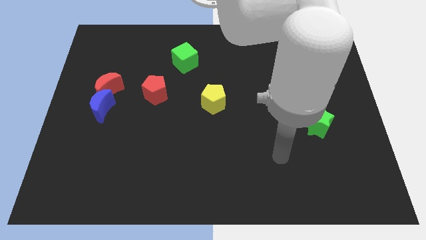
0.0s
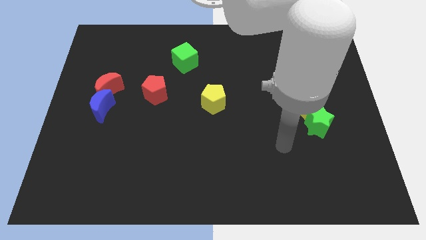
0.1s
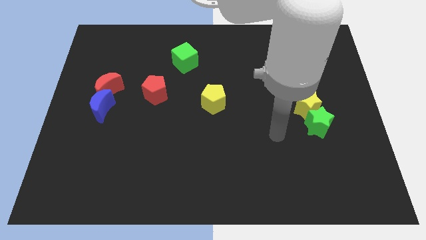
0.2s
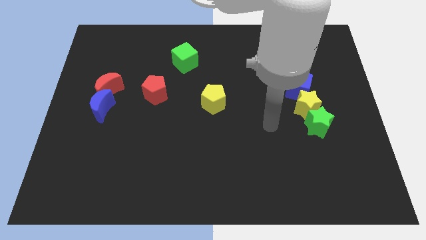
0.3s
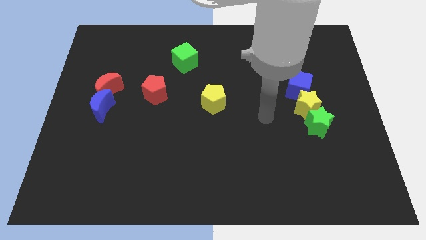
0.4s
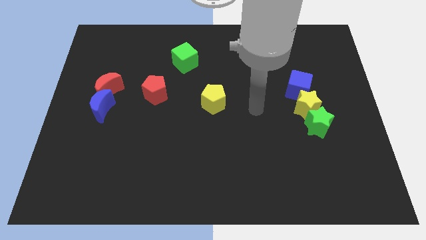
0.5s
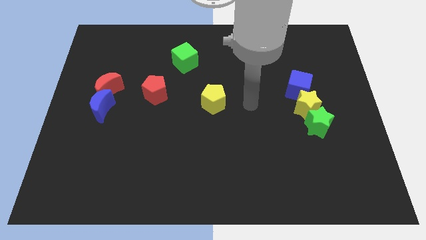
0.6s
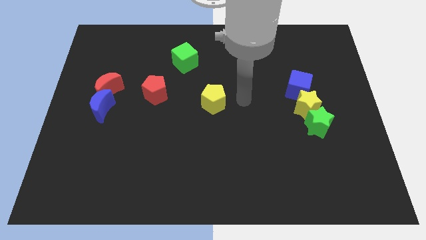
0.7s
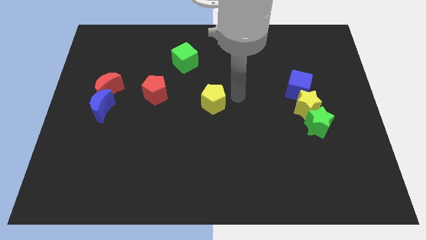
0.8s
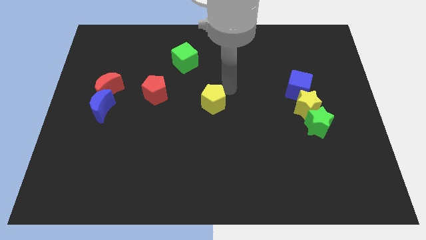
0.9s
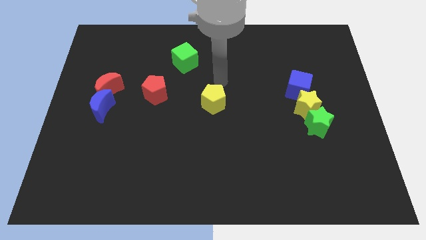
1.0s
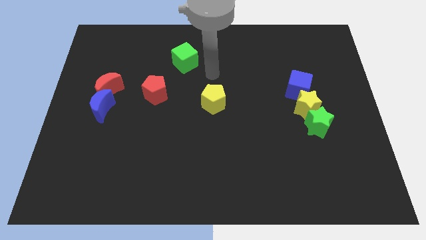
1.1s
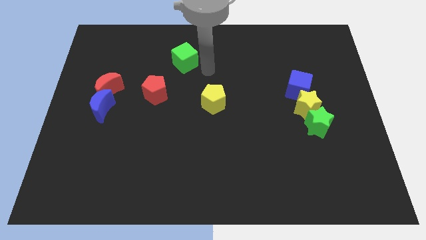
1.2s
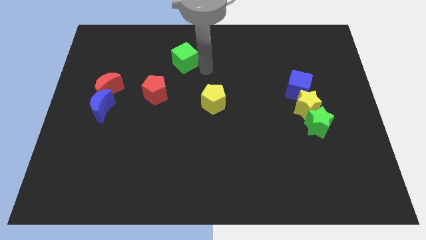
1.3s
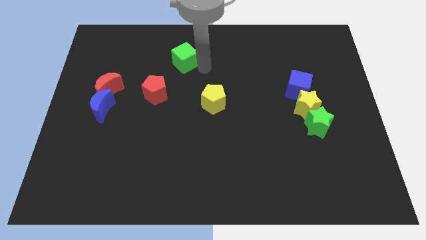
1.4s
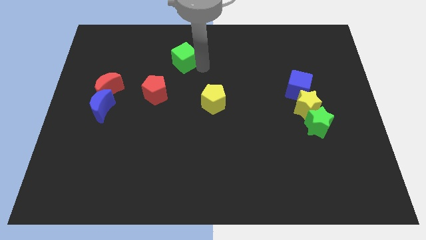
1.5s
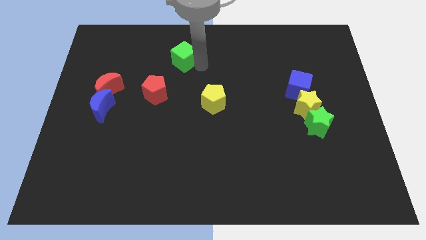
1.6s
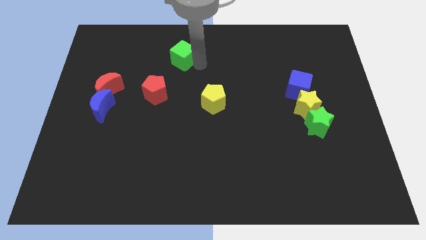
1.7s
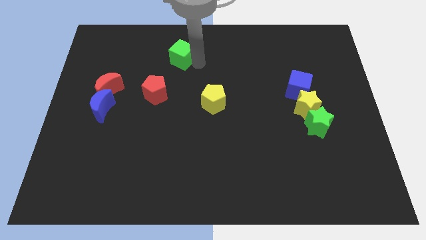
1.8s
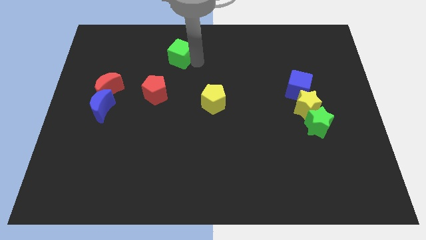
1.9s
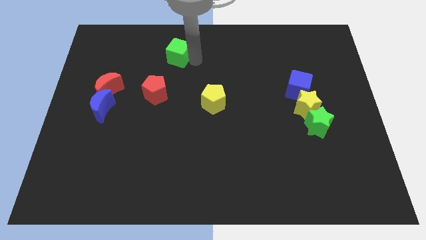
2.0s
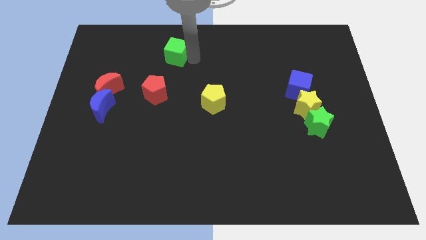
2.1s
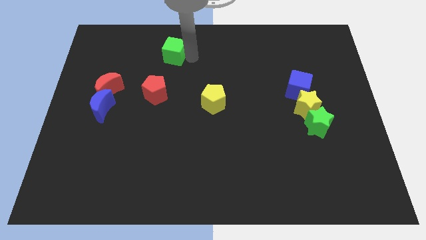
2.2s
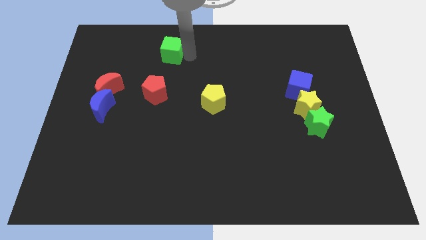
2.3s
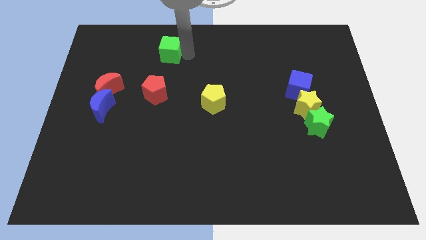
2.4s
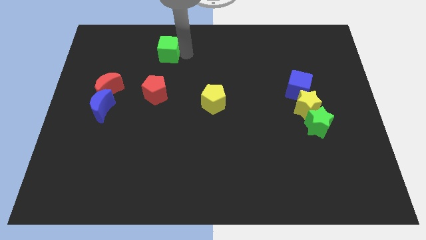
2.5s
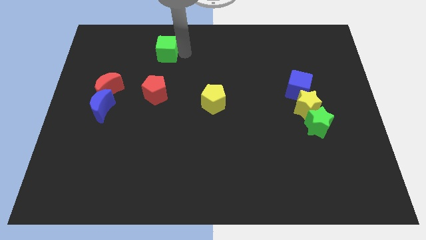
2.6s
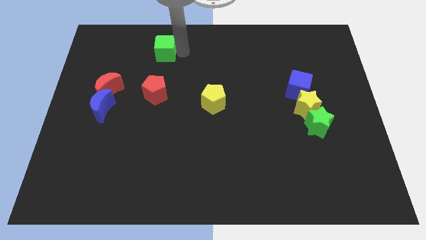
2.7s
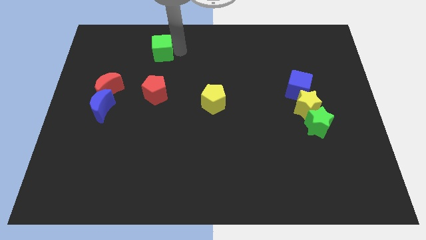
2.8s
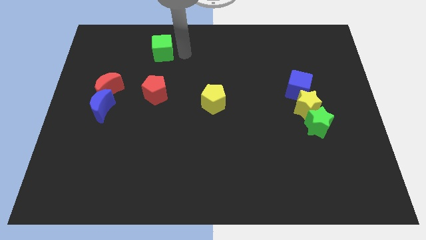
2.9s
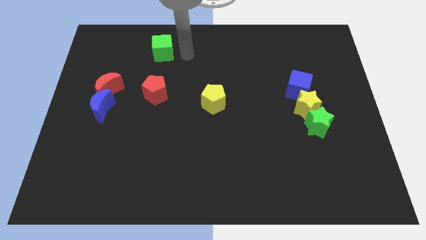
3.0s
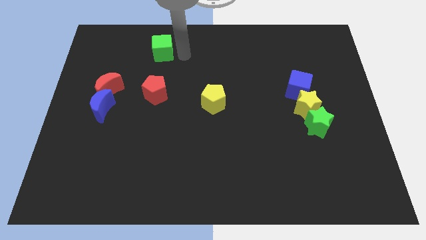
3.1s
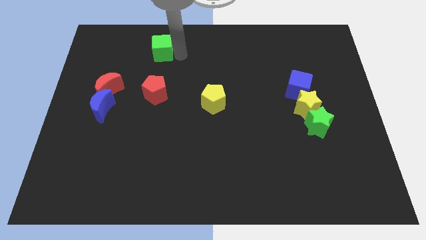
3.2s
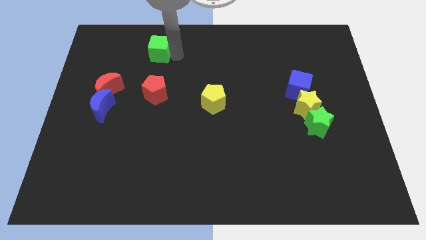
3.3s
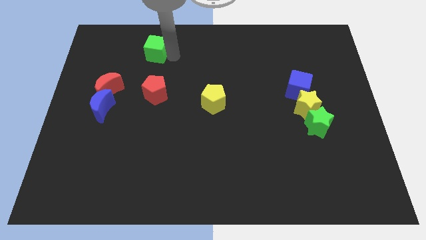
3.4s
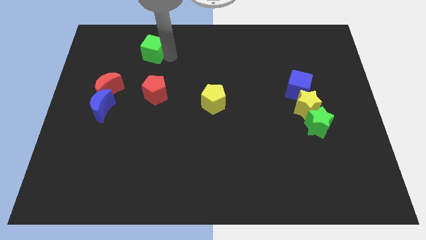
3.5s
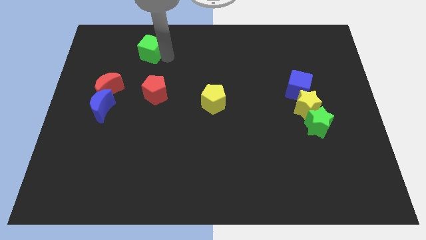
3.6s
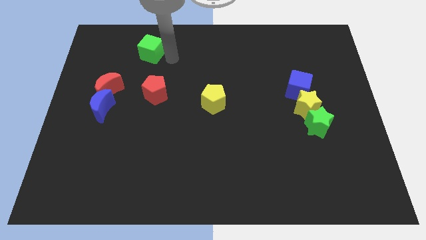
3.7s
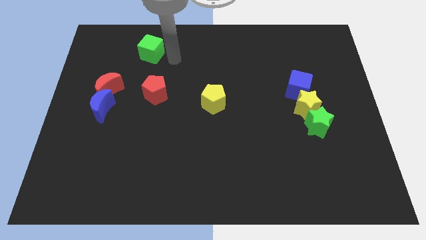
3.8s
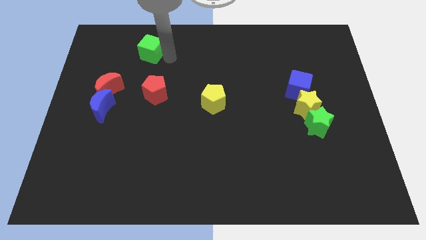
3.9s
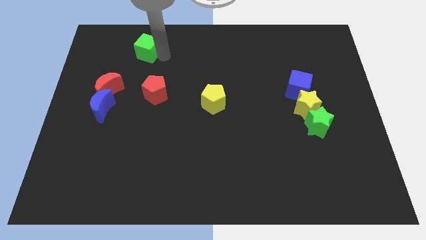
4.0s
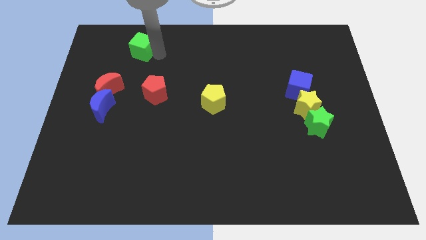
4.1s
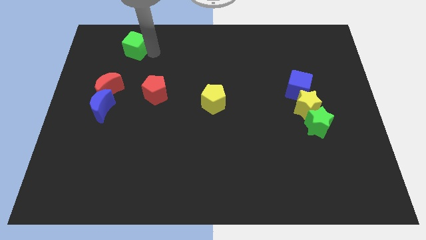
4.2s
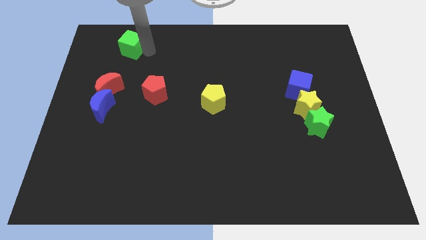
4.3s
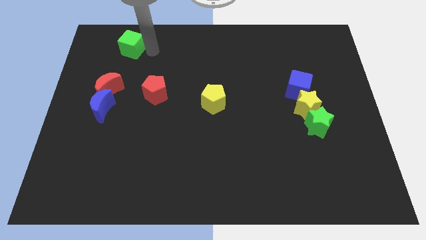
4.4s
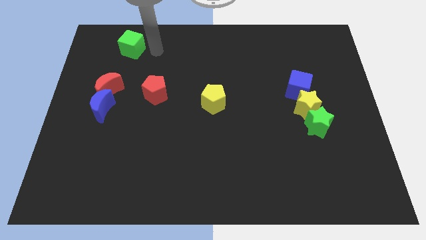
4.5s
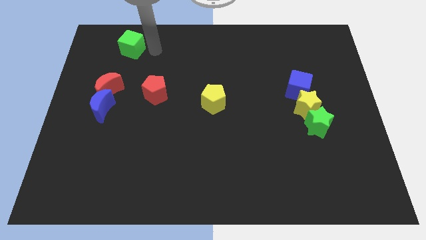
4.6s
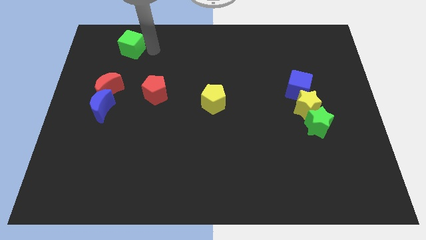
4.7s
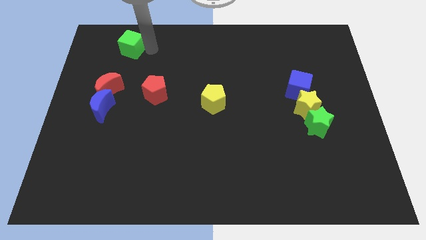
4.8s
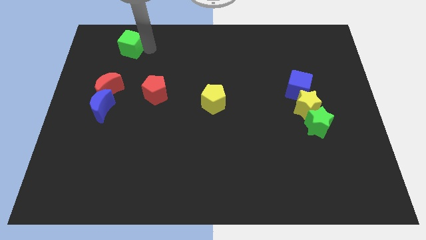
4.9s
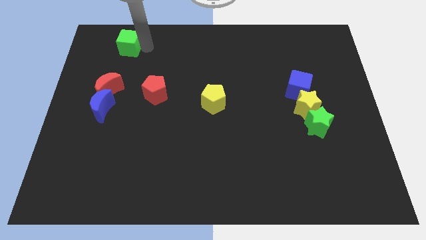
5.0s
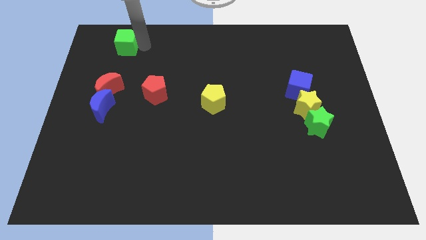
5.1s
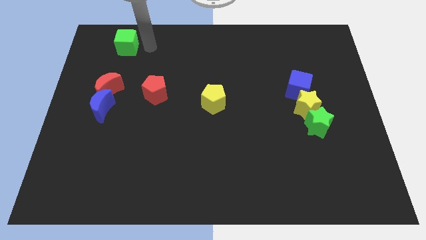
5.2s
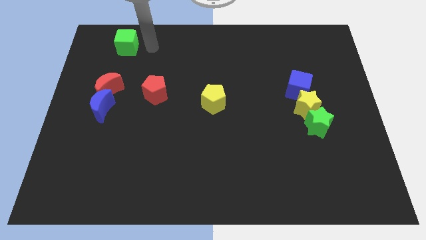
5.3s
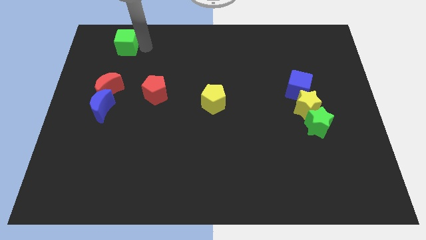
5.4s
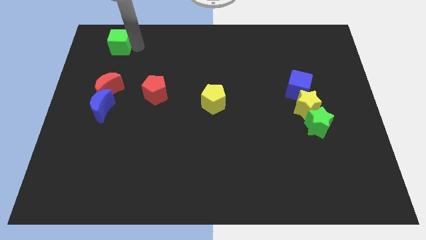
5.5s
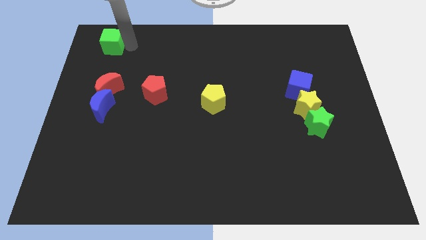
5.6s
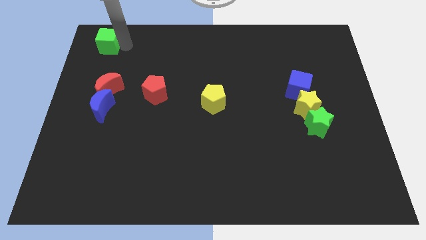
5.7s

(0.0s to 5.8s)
put the green cube to the top left
